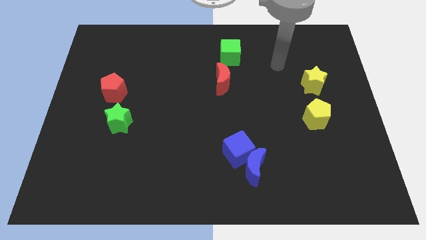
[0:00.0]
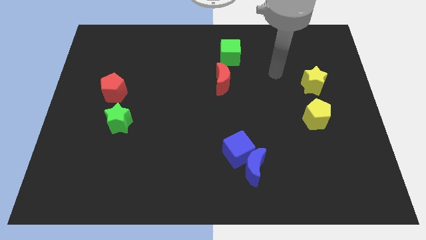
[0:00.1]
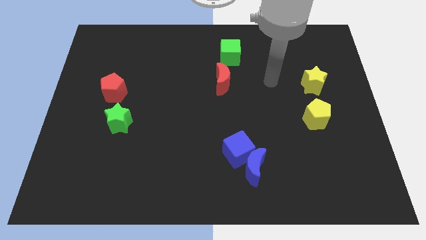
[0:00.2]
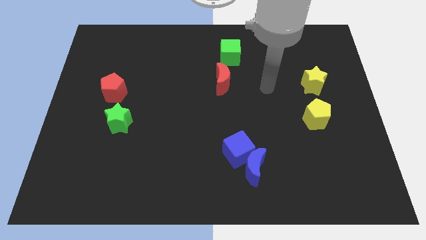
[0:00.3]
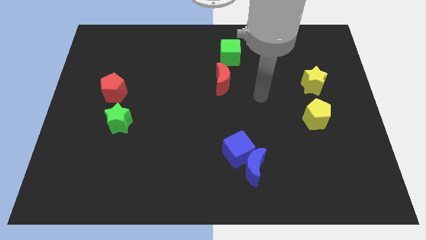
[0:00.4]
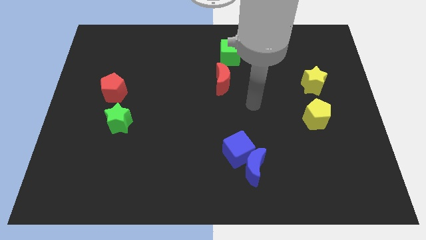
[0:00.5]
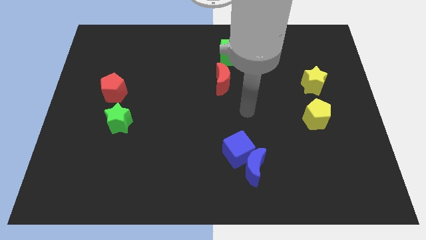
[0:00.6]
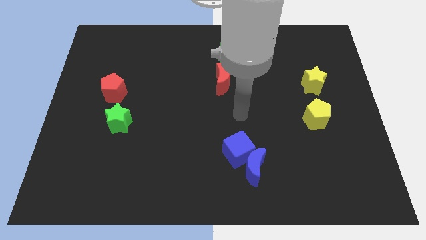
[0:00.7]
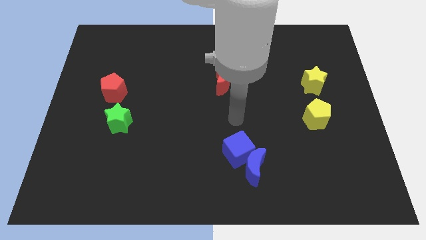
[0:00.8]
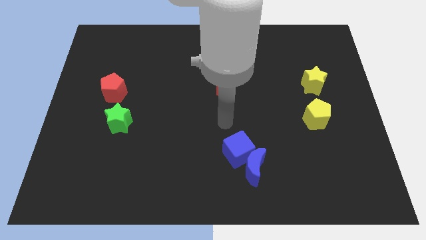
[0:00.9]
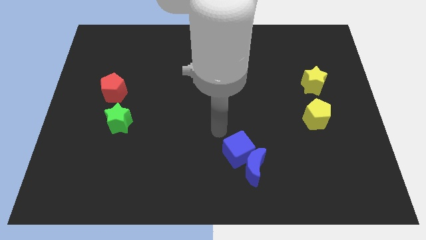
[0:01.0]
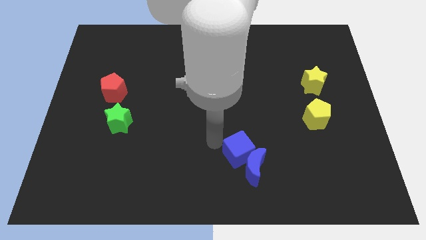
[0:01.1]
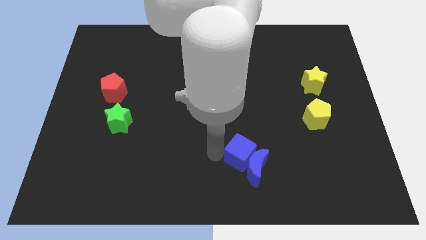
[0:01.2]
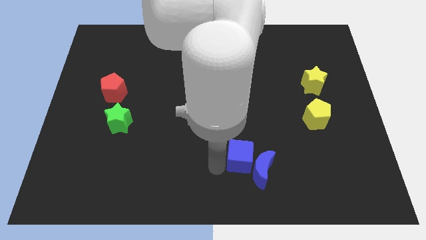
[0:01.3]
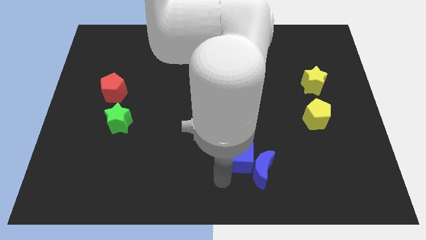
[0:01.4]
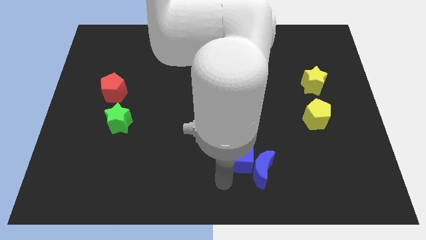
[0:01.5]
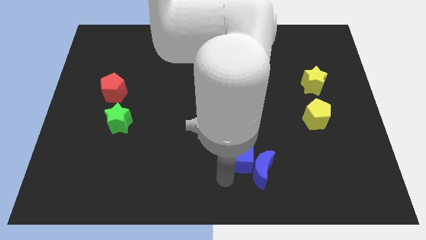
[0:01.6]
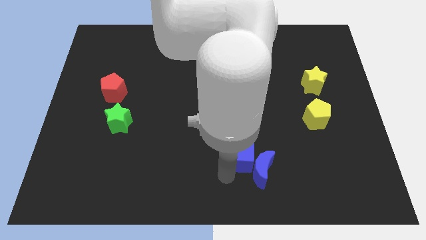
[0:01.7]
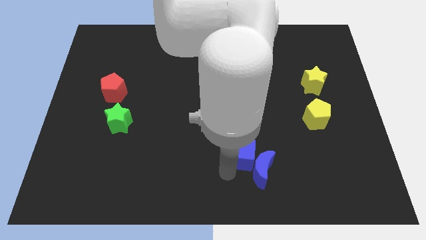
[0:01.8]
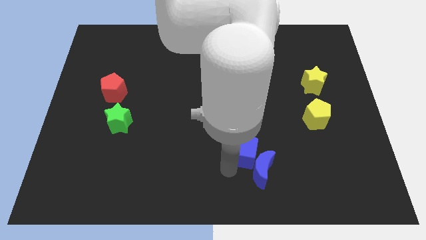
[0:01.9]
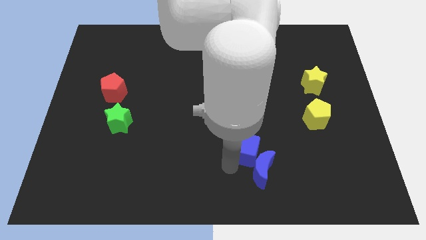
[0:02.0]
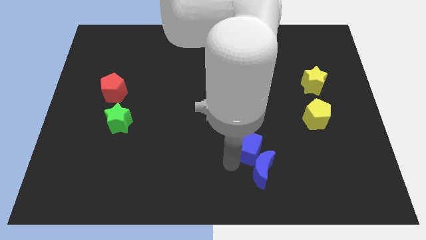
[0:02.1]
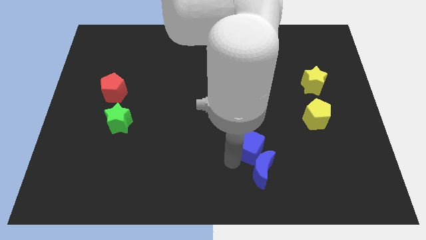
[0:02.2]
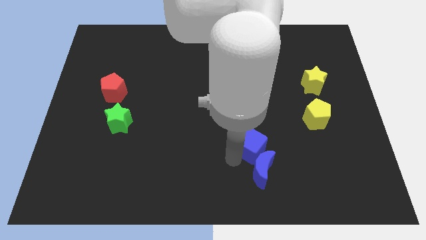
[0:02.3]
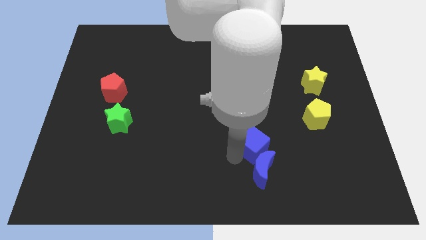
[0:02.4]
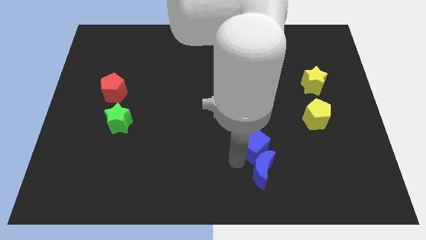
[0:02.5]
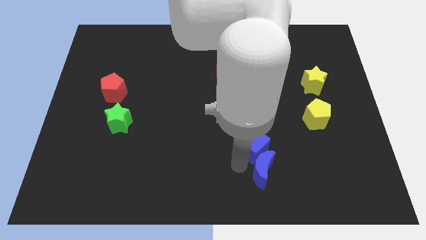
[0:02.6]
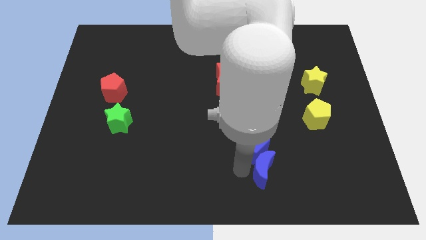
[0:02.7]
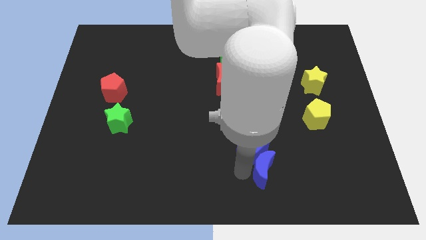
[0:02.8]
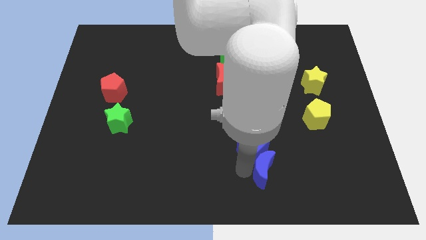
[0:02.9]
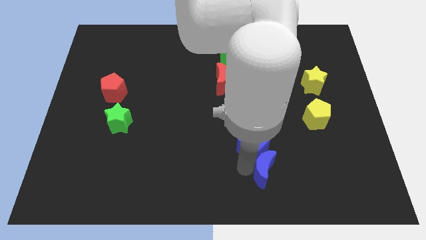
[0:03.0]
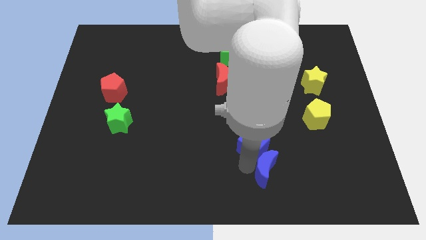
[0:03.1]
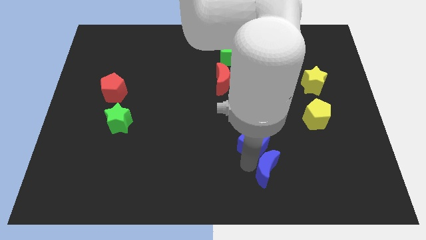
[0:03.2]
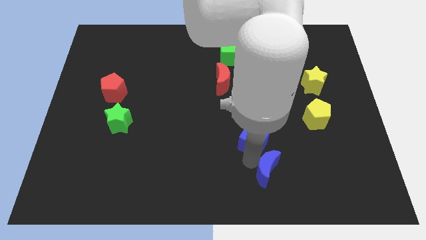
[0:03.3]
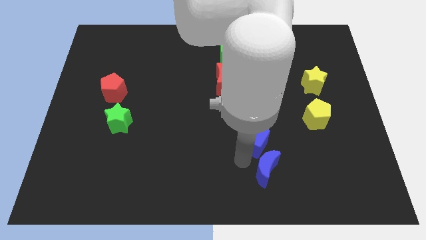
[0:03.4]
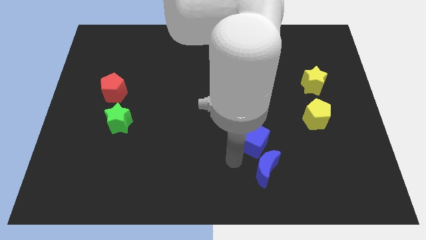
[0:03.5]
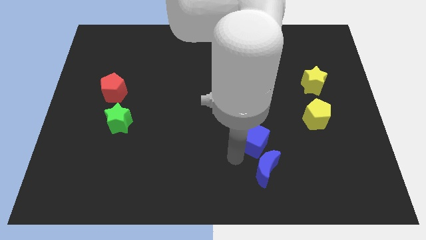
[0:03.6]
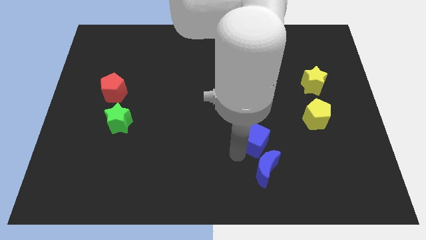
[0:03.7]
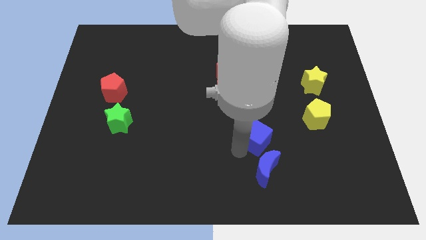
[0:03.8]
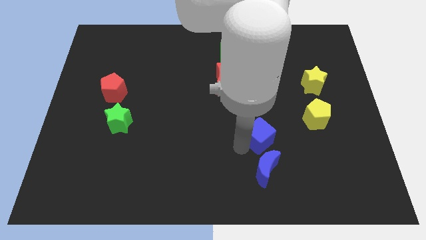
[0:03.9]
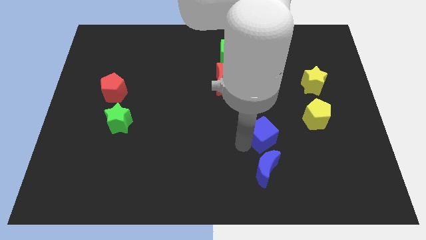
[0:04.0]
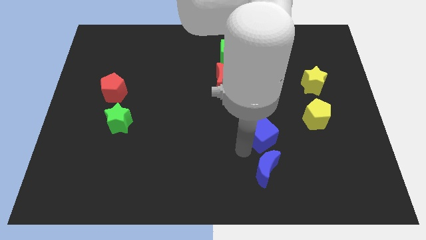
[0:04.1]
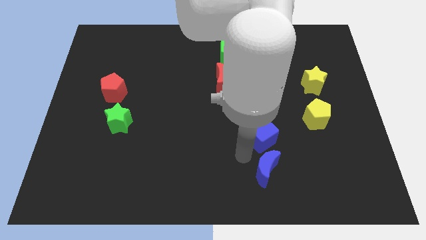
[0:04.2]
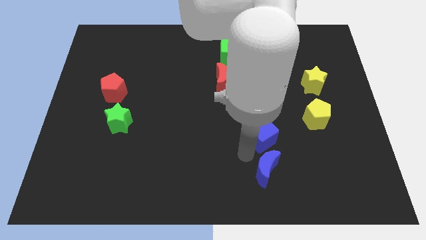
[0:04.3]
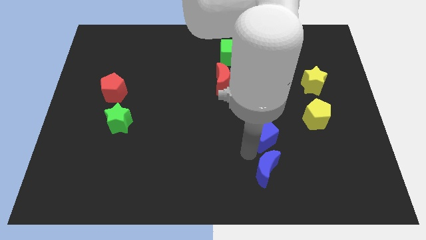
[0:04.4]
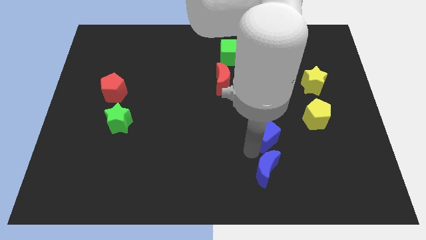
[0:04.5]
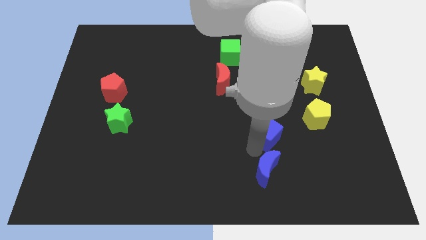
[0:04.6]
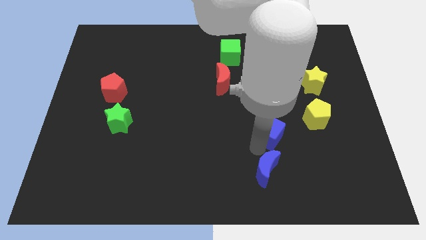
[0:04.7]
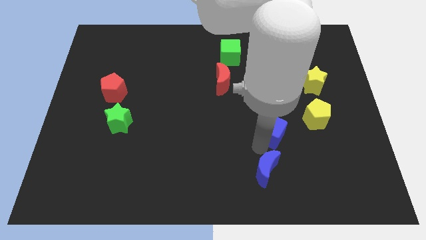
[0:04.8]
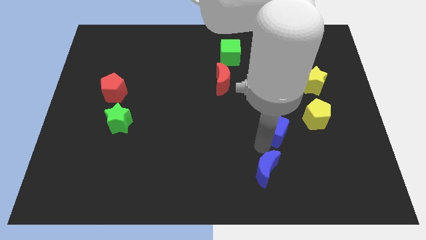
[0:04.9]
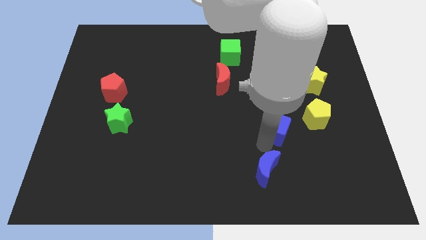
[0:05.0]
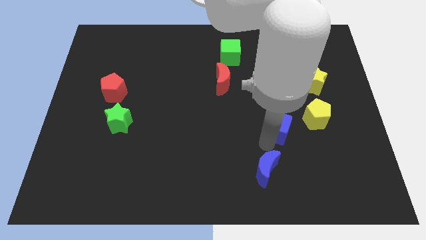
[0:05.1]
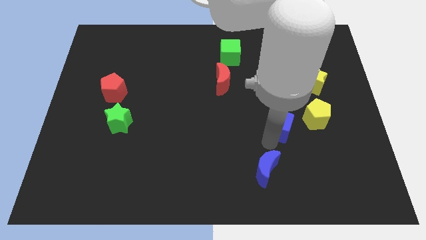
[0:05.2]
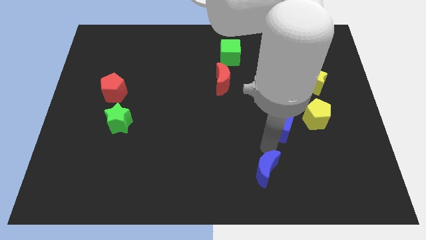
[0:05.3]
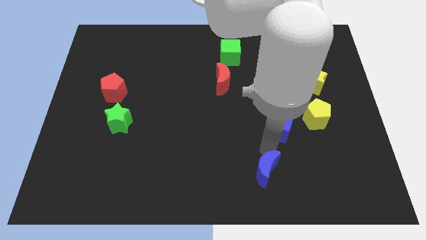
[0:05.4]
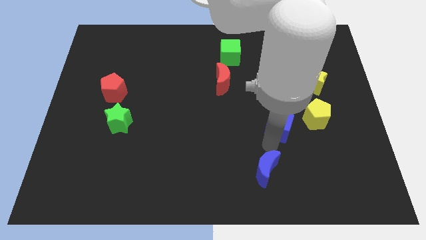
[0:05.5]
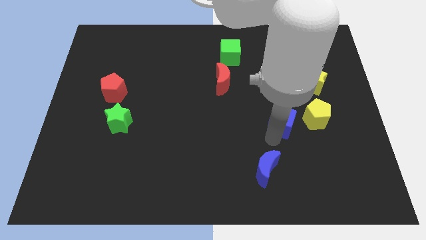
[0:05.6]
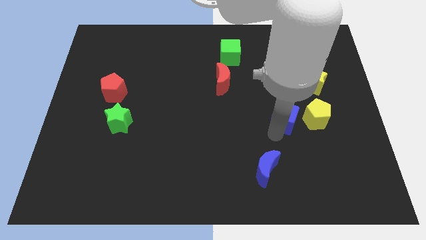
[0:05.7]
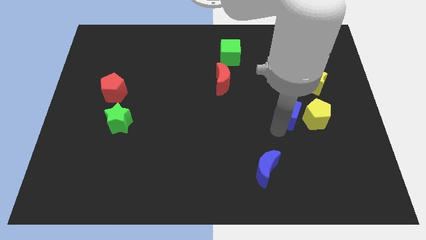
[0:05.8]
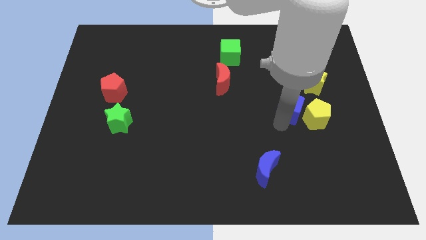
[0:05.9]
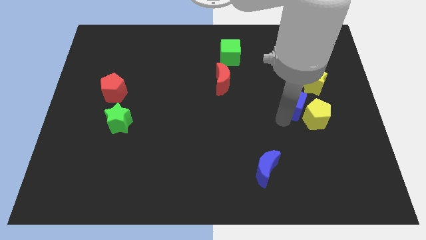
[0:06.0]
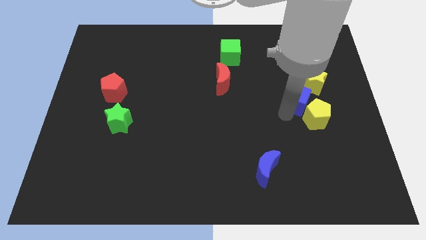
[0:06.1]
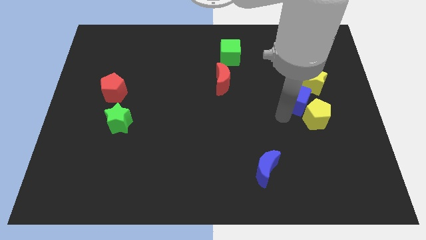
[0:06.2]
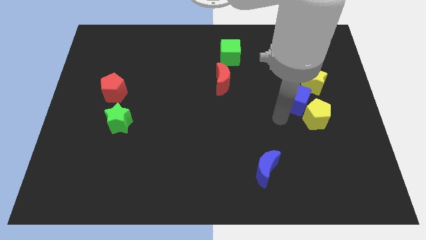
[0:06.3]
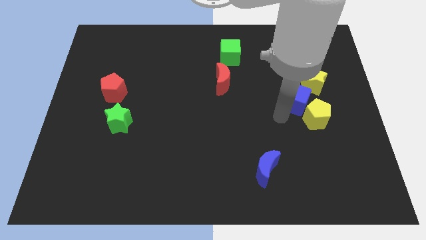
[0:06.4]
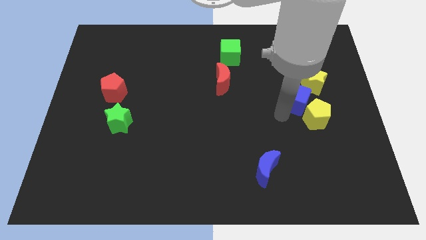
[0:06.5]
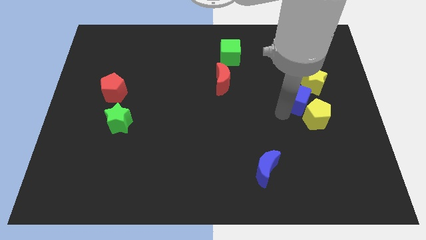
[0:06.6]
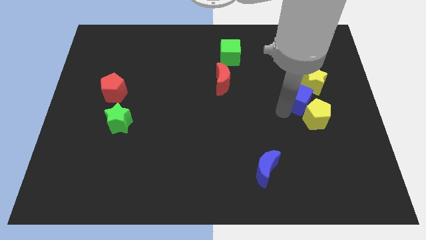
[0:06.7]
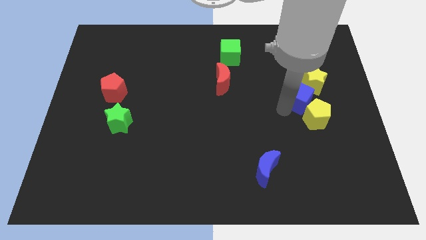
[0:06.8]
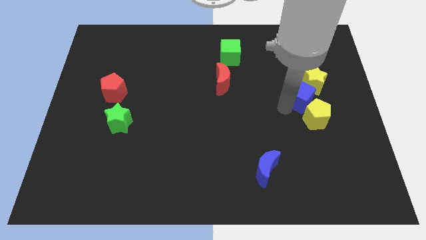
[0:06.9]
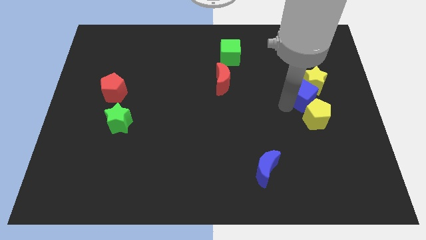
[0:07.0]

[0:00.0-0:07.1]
put the blue cube close to the yellow star
